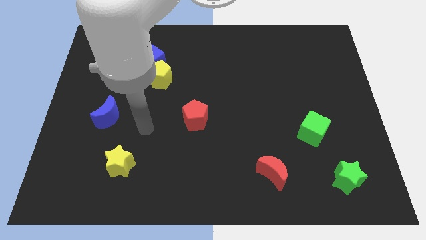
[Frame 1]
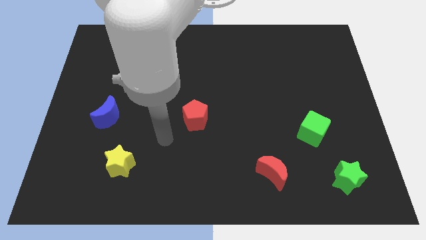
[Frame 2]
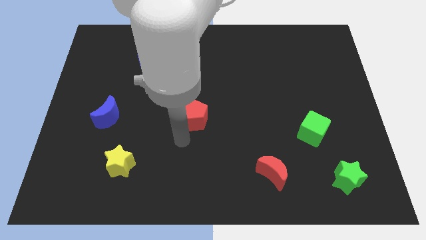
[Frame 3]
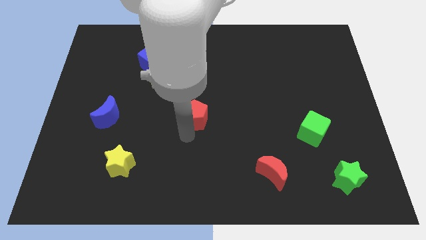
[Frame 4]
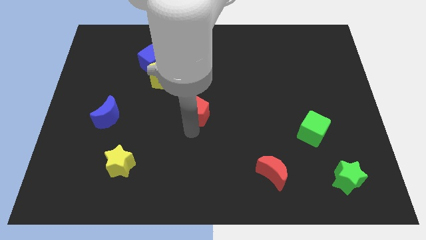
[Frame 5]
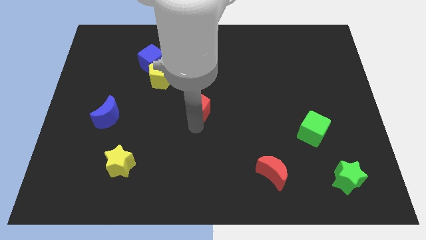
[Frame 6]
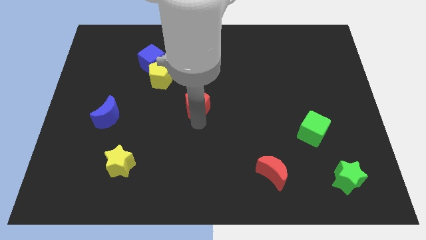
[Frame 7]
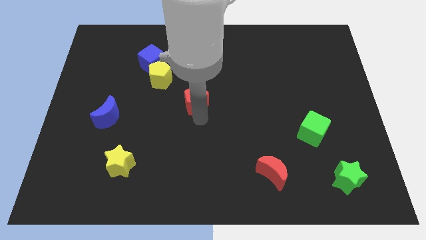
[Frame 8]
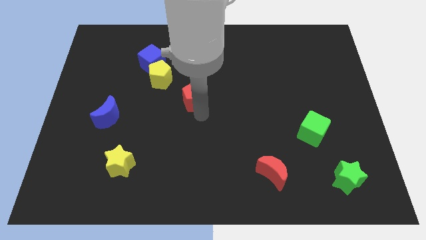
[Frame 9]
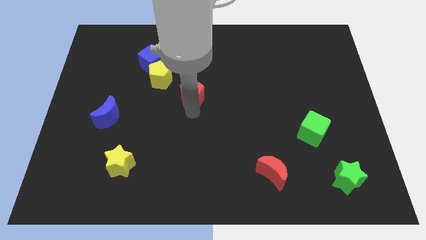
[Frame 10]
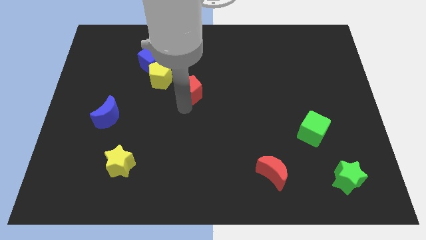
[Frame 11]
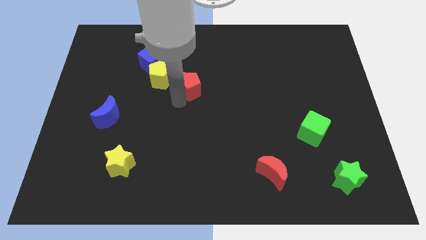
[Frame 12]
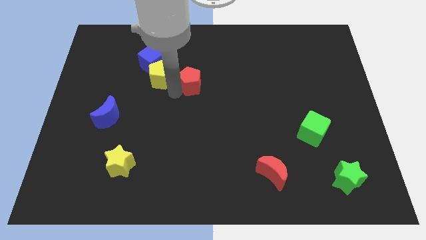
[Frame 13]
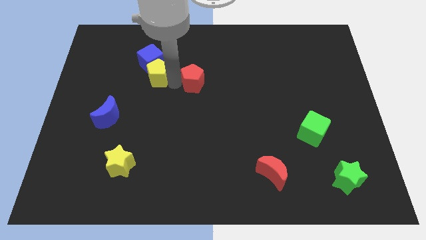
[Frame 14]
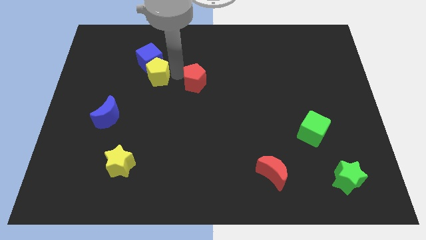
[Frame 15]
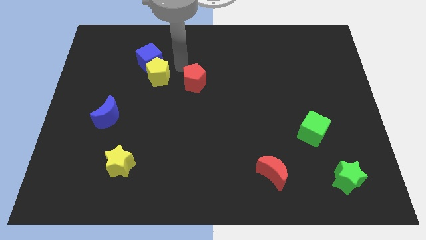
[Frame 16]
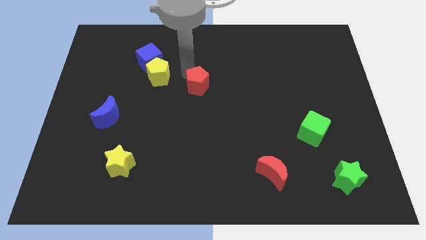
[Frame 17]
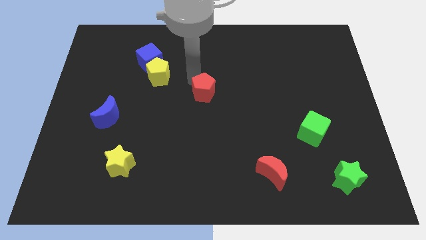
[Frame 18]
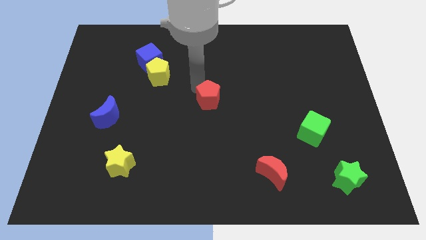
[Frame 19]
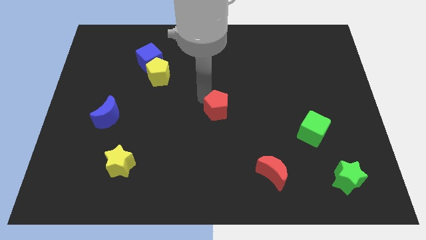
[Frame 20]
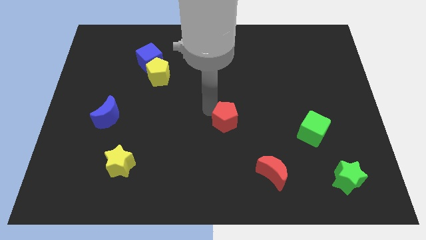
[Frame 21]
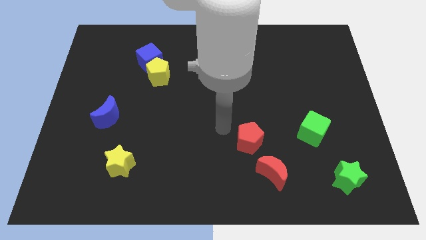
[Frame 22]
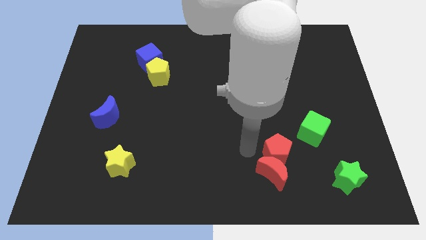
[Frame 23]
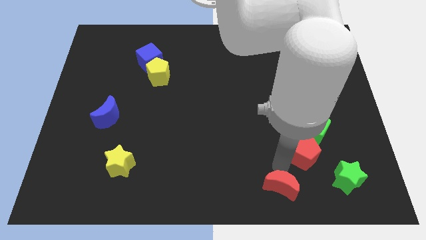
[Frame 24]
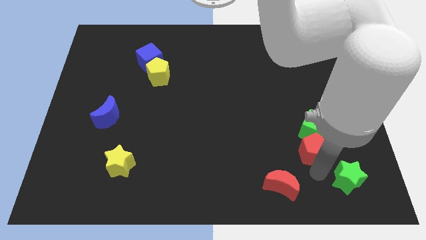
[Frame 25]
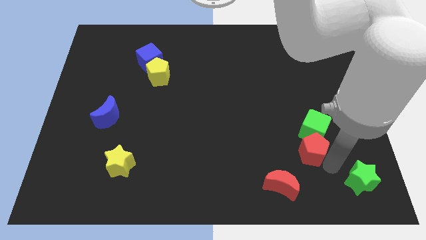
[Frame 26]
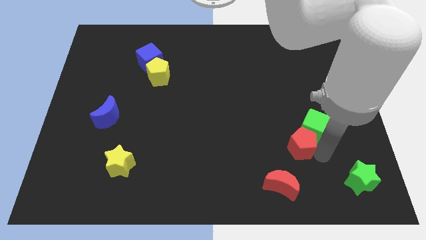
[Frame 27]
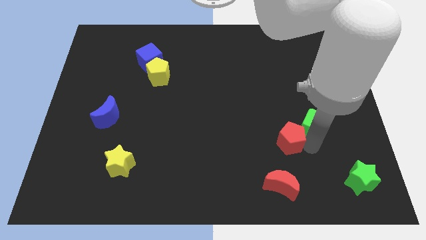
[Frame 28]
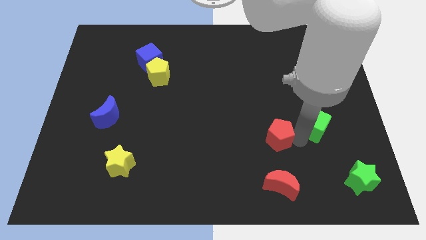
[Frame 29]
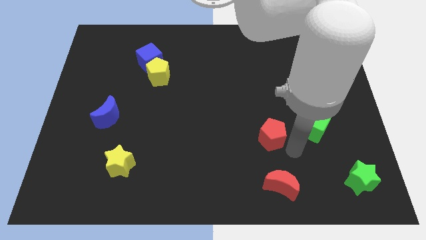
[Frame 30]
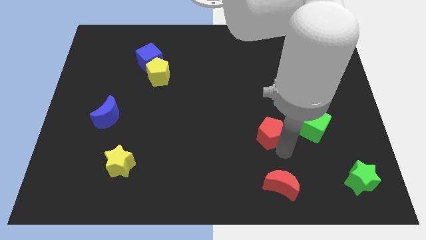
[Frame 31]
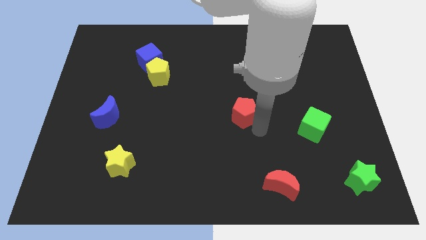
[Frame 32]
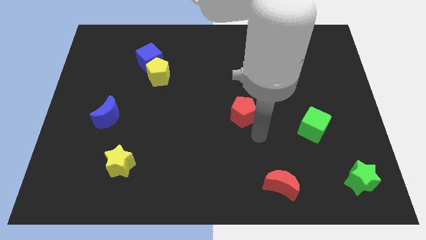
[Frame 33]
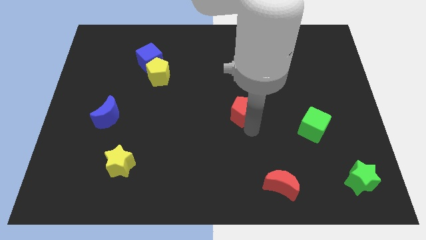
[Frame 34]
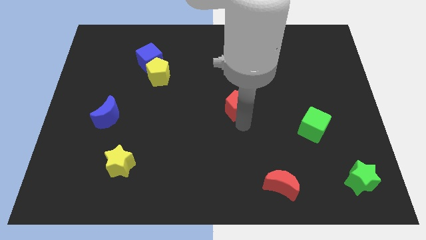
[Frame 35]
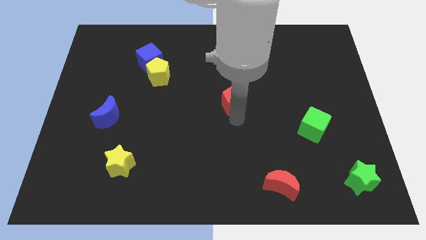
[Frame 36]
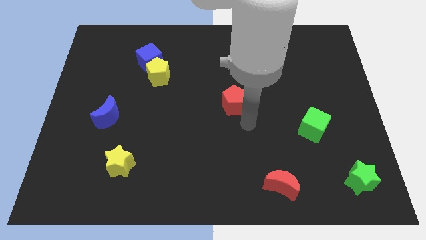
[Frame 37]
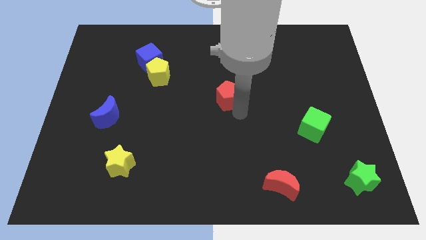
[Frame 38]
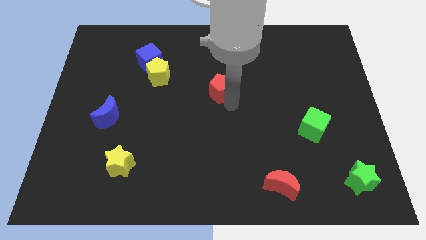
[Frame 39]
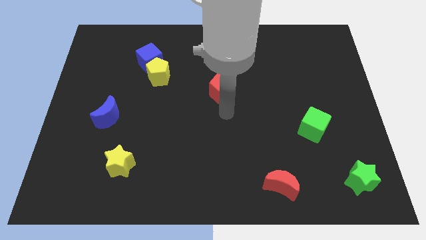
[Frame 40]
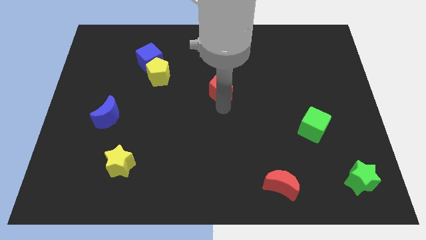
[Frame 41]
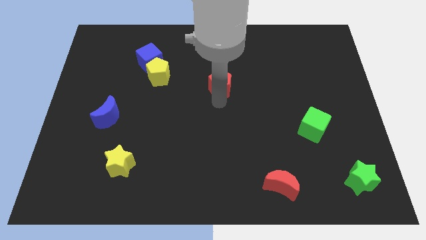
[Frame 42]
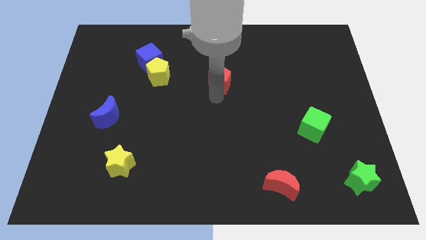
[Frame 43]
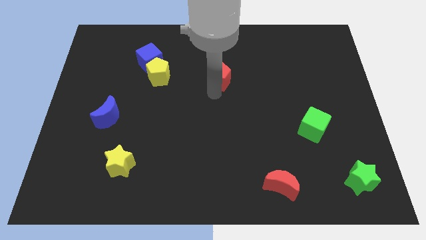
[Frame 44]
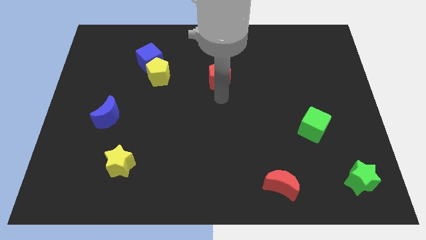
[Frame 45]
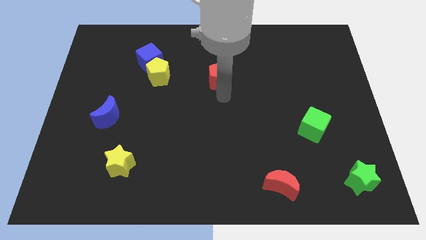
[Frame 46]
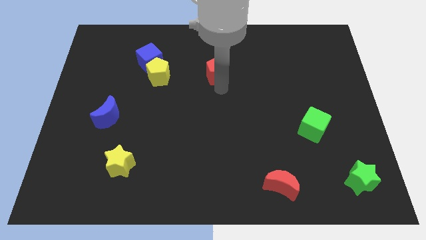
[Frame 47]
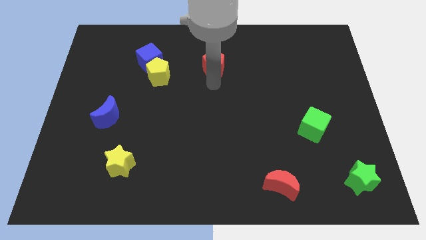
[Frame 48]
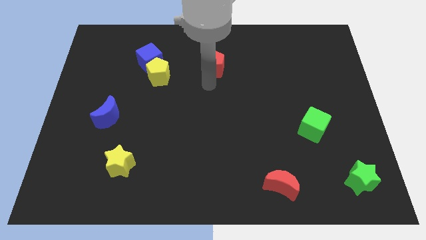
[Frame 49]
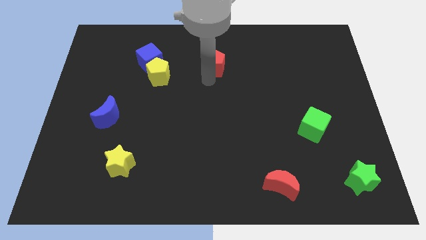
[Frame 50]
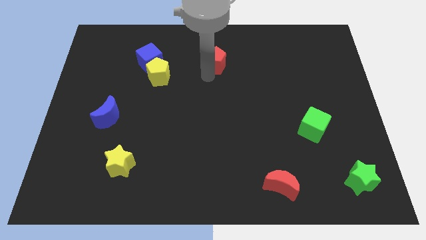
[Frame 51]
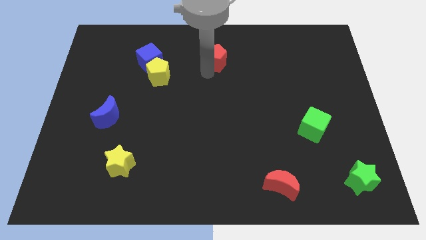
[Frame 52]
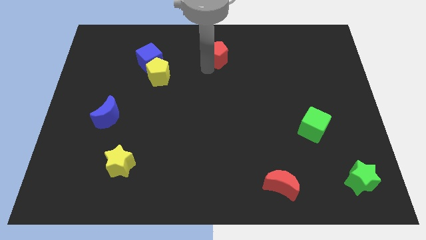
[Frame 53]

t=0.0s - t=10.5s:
push the red pentagon to the top

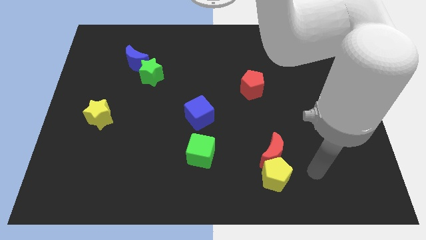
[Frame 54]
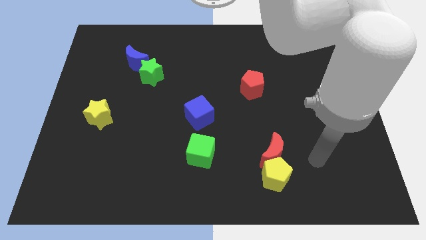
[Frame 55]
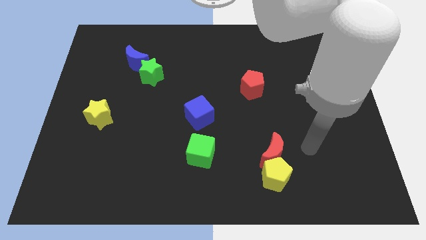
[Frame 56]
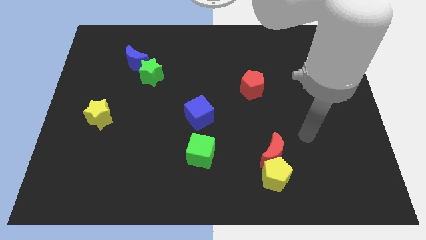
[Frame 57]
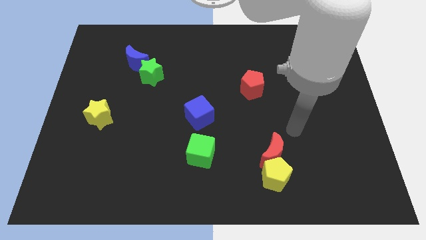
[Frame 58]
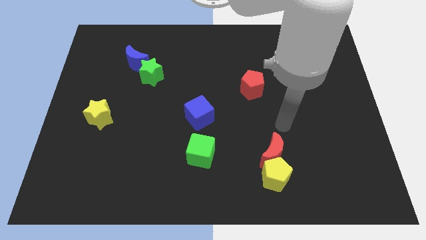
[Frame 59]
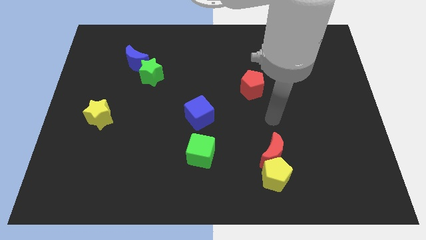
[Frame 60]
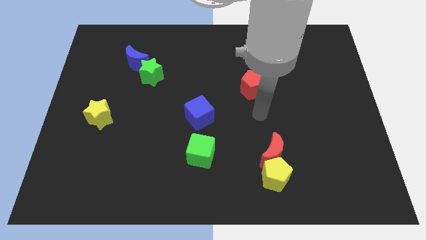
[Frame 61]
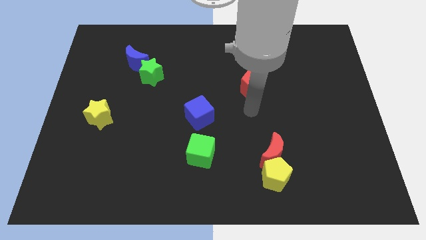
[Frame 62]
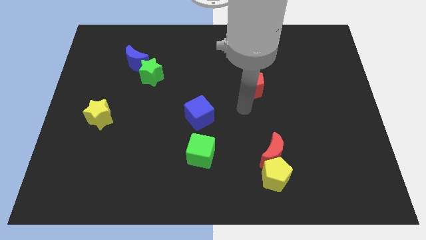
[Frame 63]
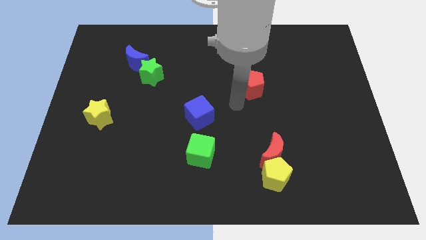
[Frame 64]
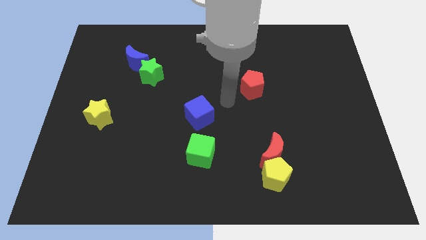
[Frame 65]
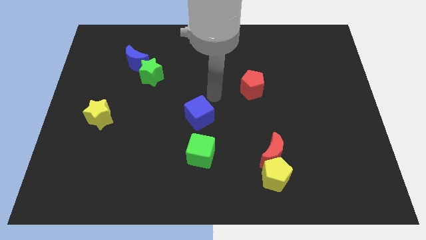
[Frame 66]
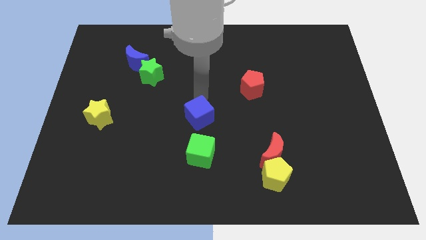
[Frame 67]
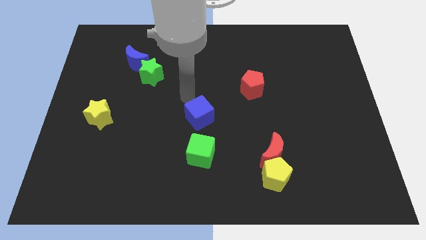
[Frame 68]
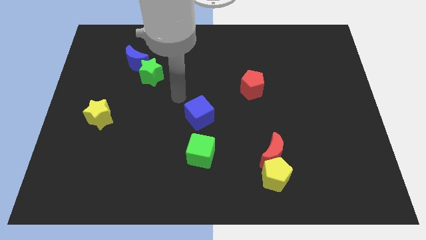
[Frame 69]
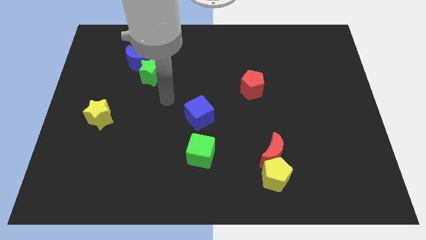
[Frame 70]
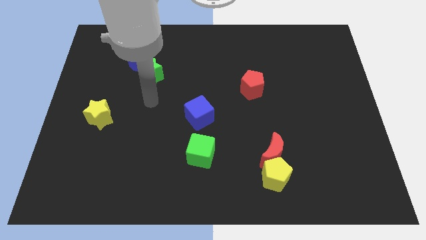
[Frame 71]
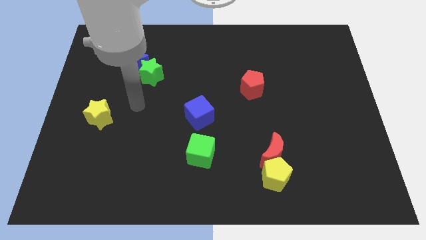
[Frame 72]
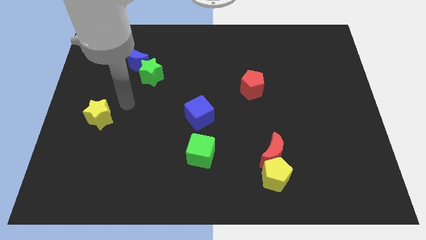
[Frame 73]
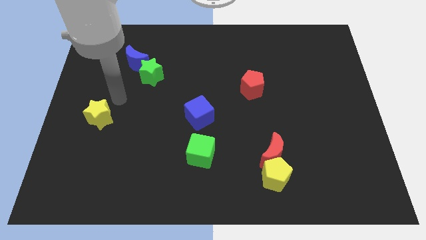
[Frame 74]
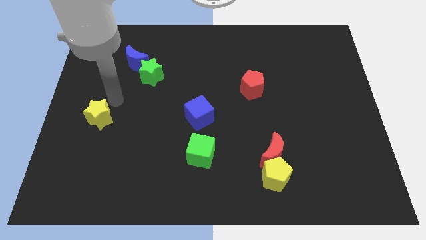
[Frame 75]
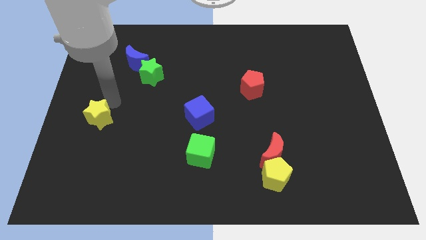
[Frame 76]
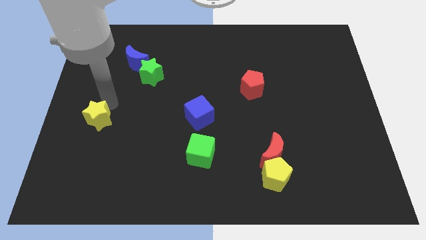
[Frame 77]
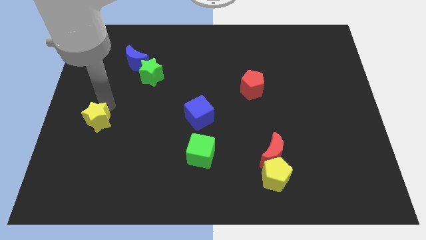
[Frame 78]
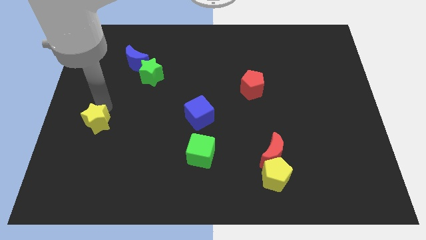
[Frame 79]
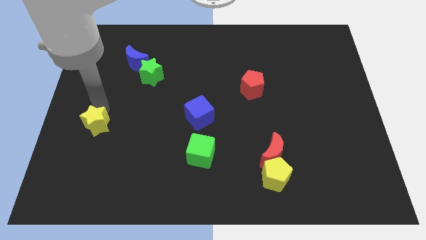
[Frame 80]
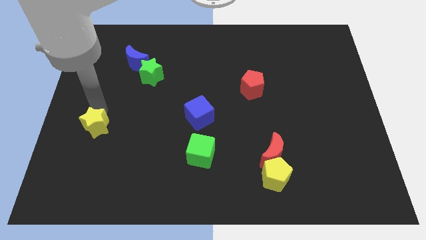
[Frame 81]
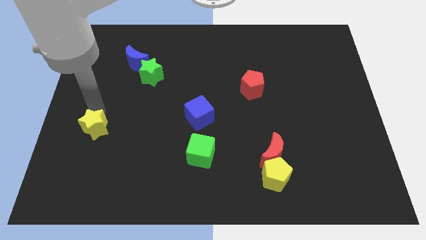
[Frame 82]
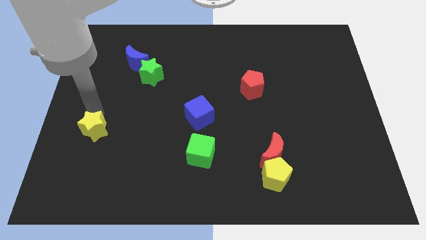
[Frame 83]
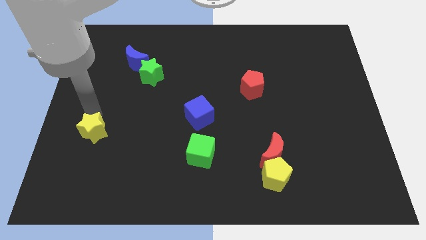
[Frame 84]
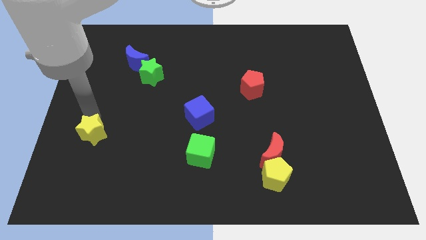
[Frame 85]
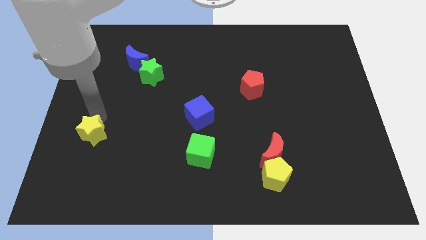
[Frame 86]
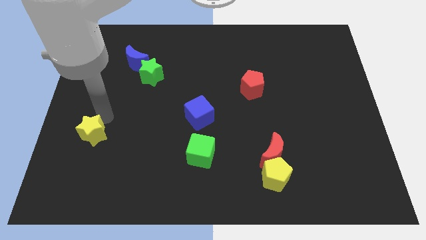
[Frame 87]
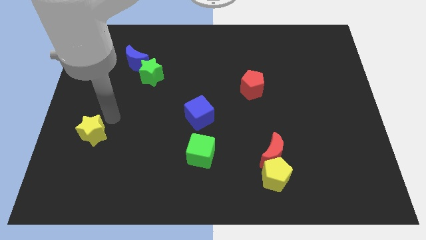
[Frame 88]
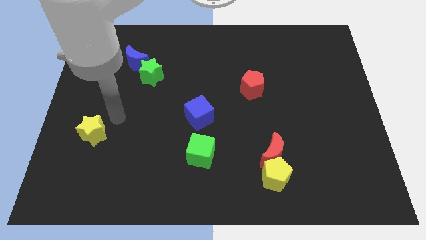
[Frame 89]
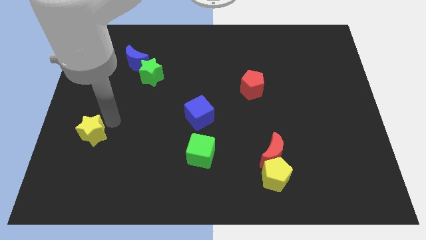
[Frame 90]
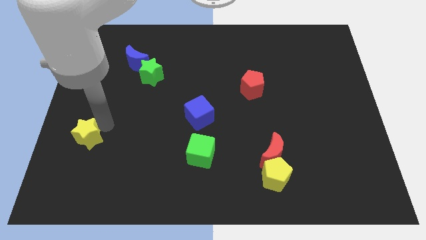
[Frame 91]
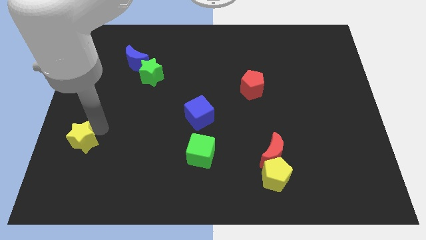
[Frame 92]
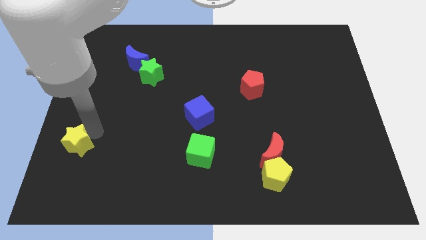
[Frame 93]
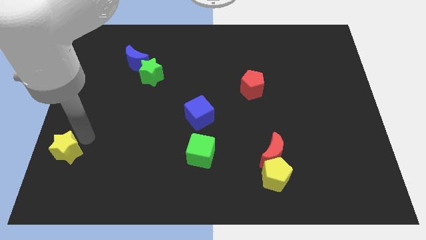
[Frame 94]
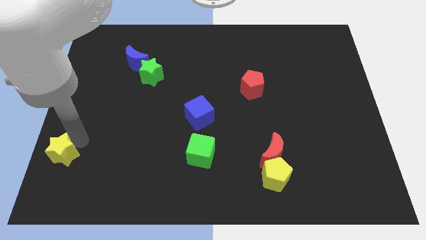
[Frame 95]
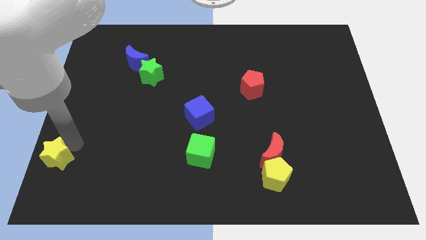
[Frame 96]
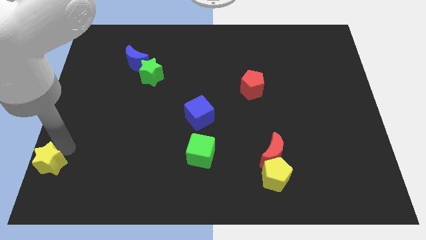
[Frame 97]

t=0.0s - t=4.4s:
slide the yellow star to the bottom left
